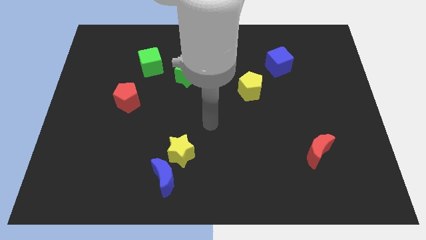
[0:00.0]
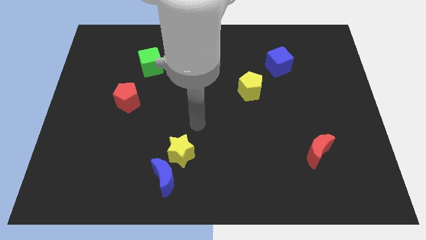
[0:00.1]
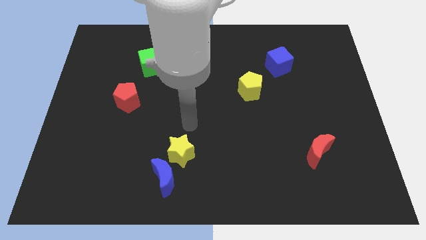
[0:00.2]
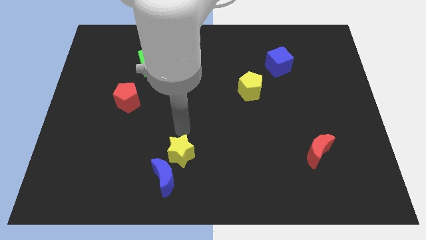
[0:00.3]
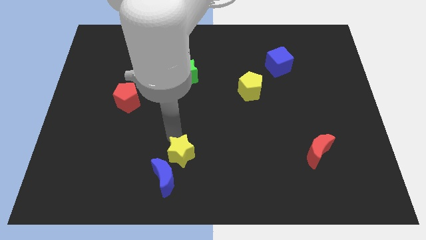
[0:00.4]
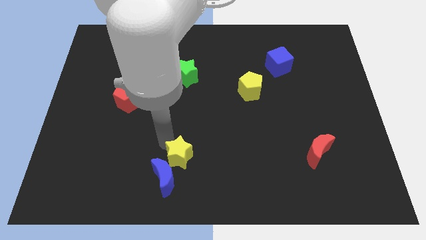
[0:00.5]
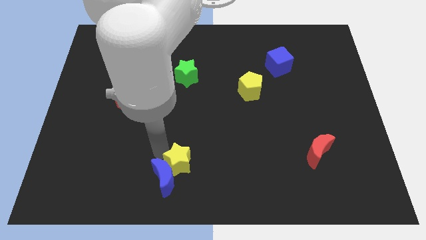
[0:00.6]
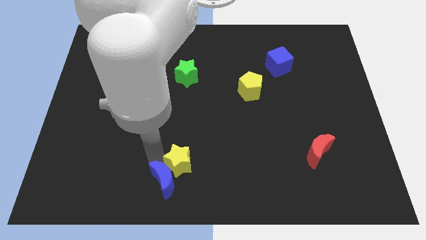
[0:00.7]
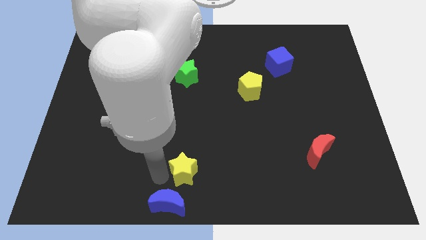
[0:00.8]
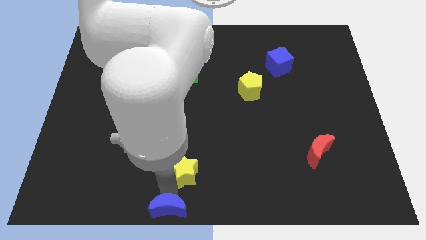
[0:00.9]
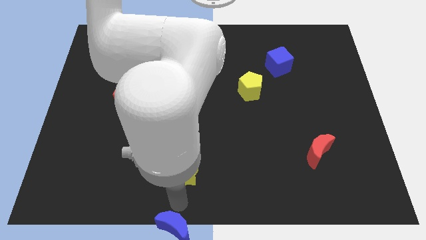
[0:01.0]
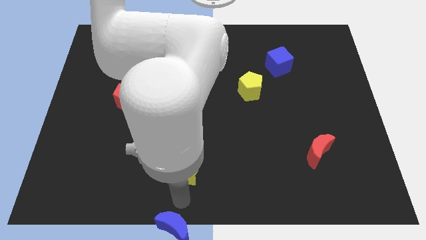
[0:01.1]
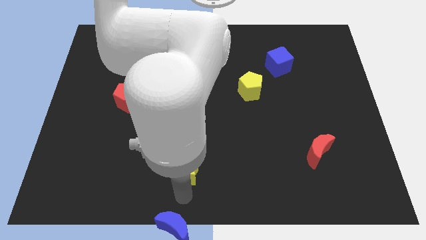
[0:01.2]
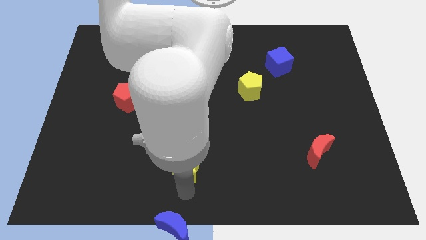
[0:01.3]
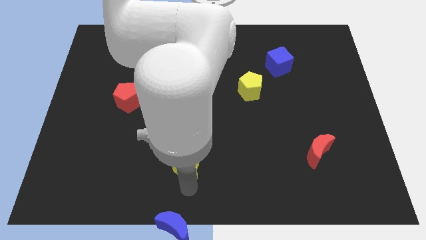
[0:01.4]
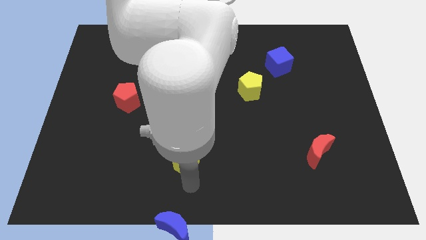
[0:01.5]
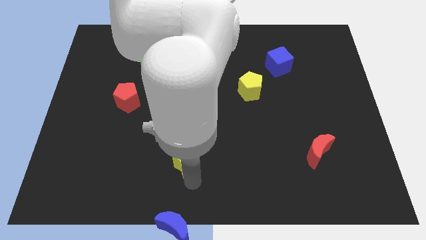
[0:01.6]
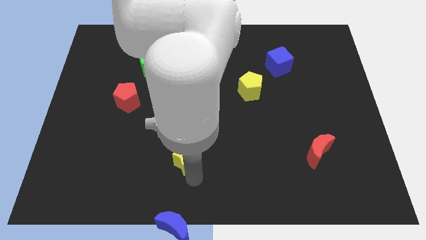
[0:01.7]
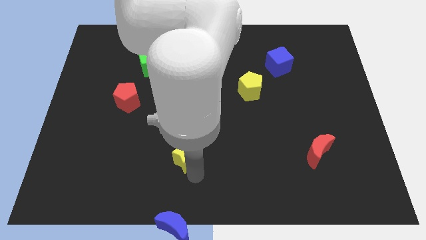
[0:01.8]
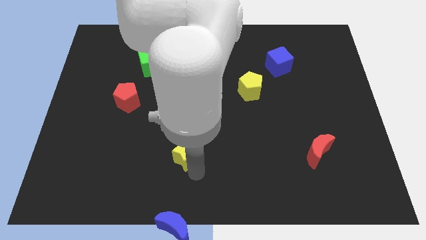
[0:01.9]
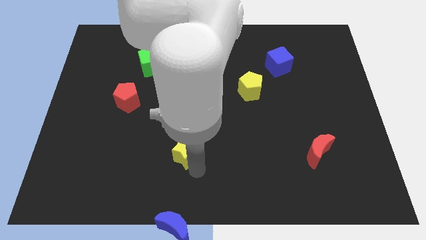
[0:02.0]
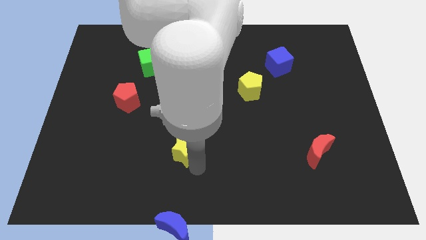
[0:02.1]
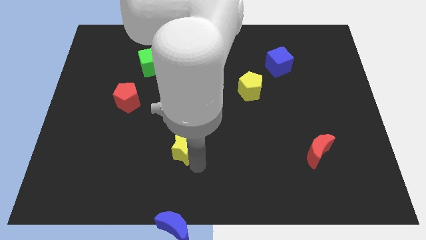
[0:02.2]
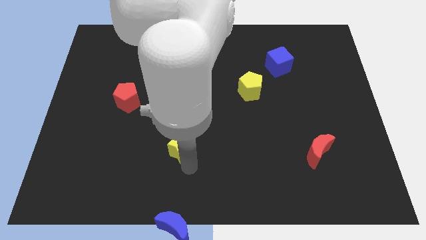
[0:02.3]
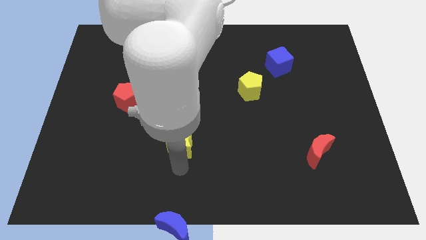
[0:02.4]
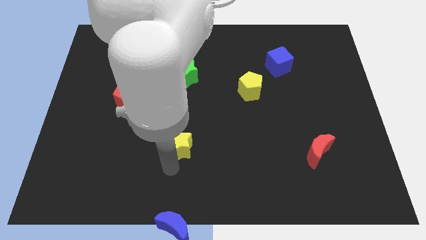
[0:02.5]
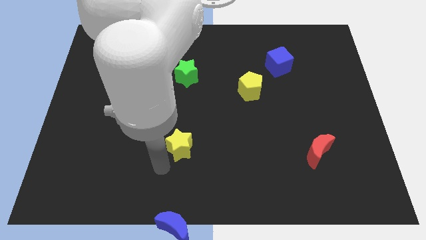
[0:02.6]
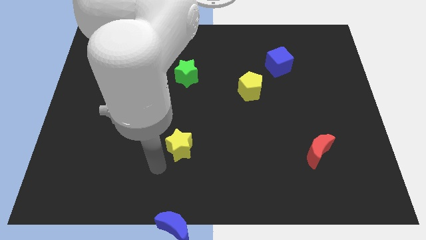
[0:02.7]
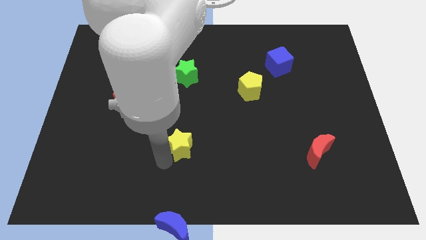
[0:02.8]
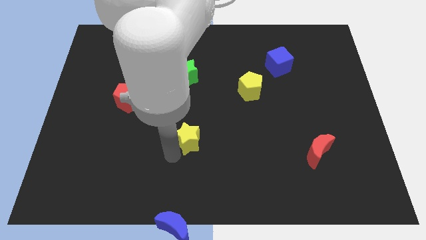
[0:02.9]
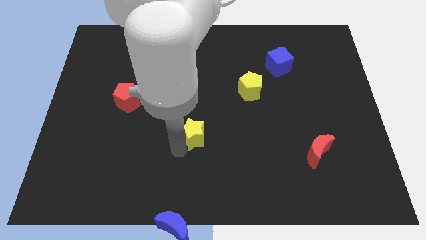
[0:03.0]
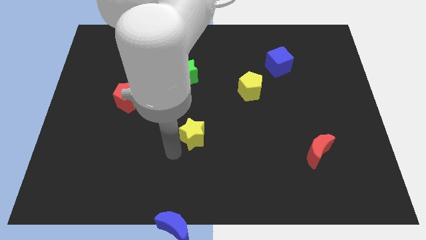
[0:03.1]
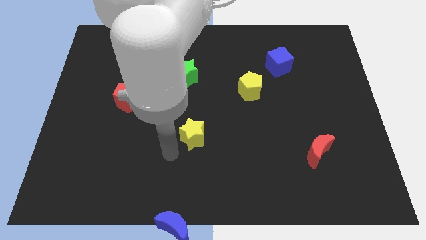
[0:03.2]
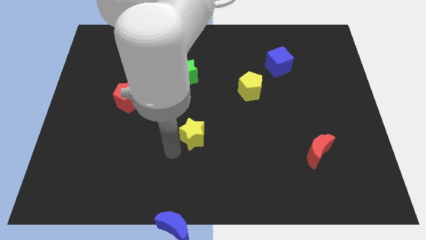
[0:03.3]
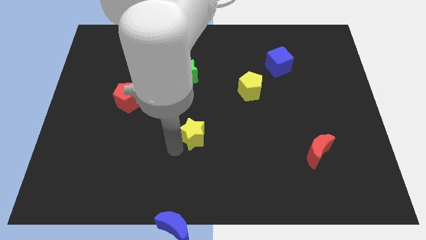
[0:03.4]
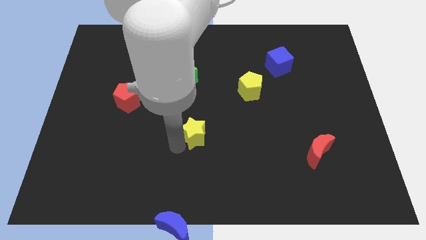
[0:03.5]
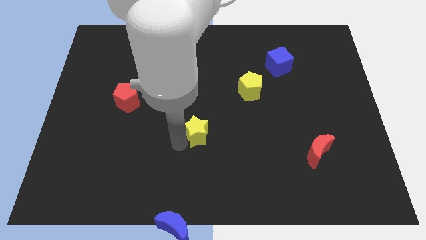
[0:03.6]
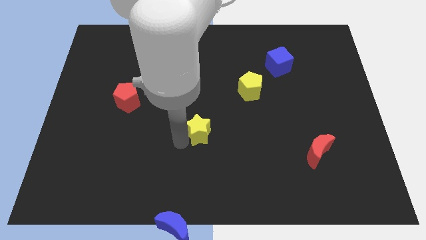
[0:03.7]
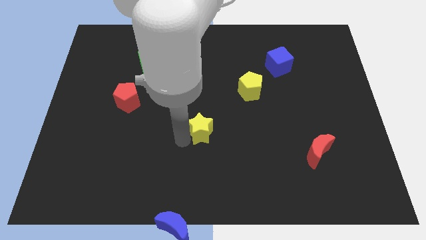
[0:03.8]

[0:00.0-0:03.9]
push the yellow star upwards and right somewhat

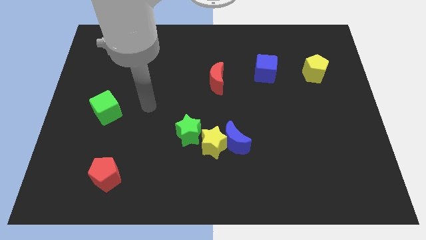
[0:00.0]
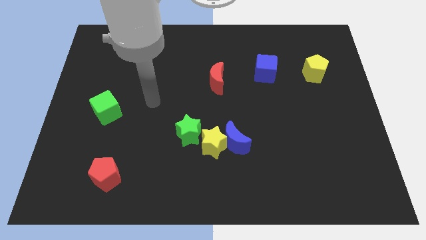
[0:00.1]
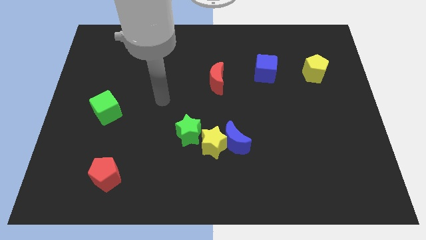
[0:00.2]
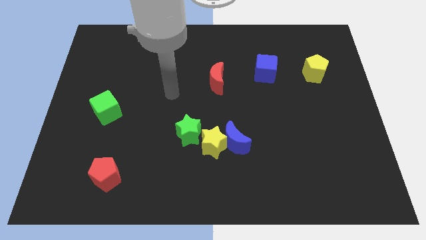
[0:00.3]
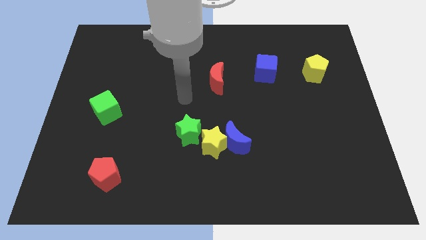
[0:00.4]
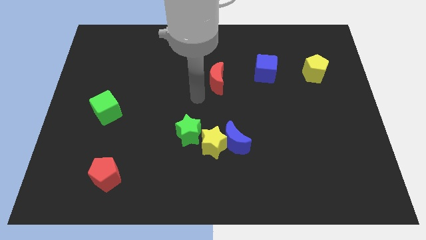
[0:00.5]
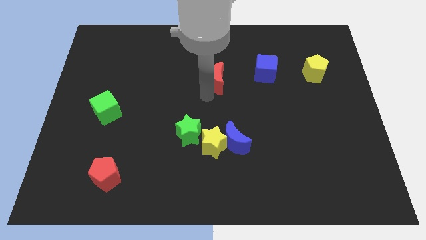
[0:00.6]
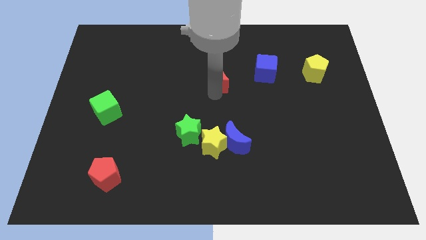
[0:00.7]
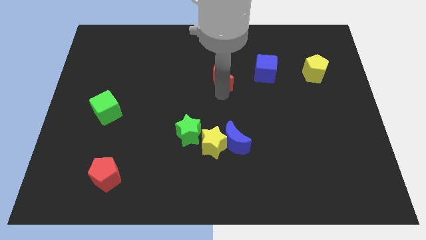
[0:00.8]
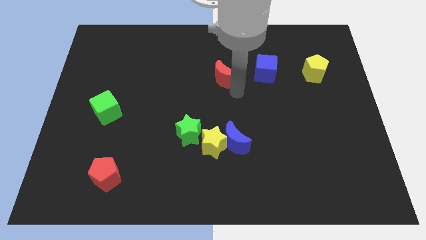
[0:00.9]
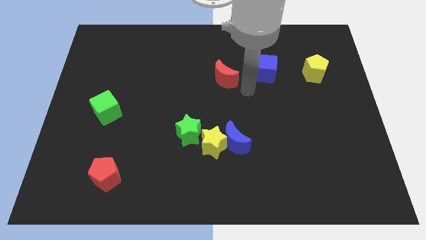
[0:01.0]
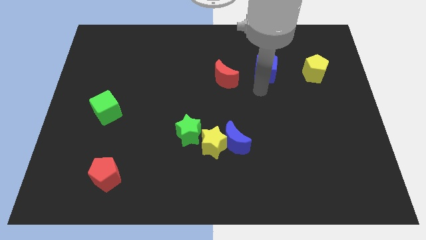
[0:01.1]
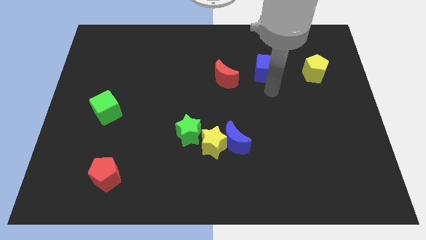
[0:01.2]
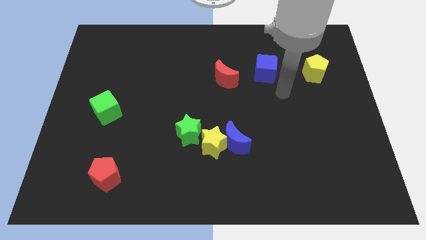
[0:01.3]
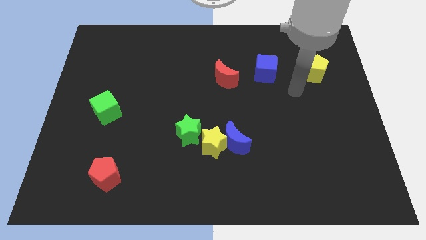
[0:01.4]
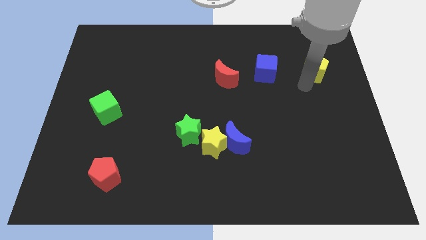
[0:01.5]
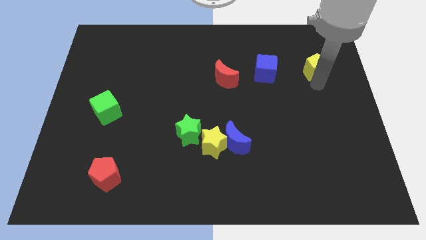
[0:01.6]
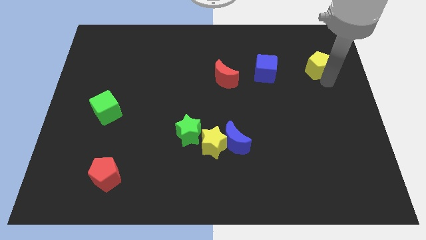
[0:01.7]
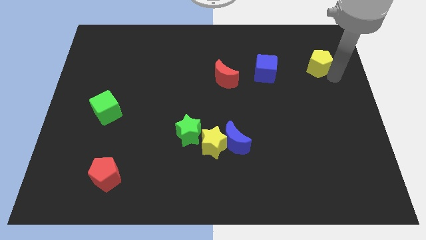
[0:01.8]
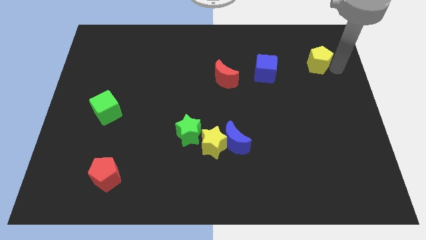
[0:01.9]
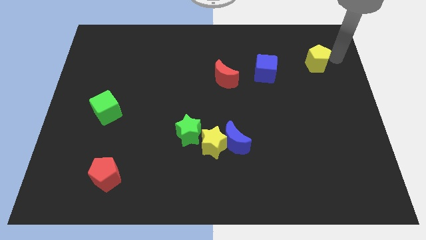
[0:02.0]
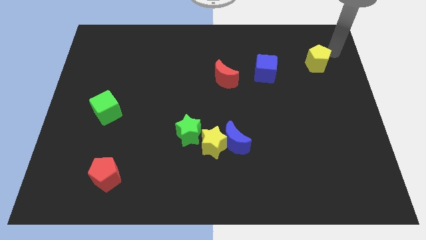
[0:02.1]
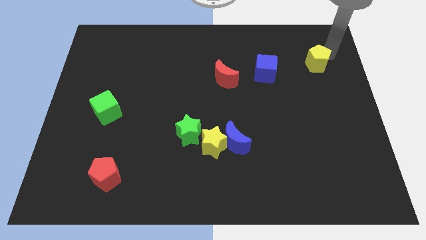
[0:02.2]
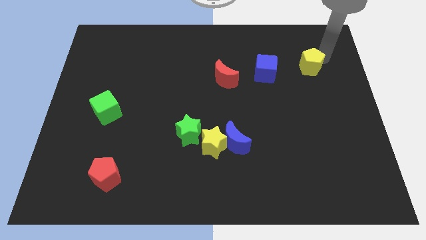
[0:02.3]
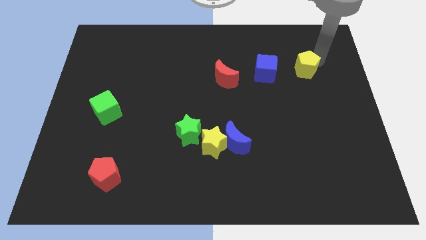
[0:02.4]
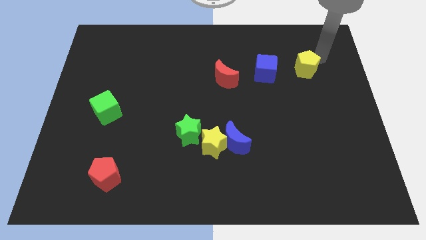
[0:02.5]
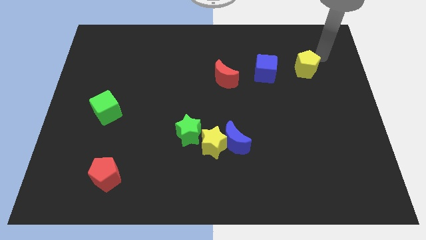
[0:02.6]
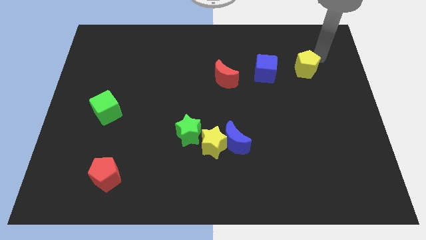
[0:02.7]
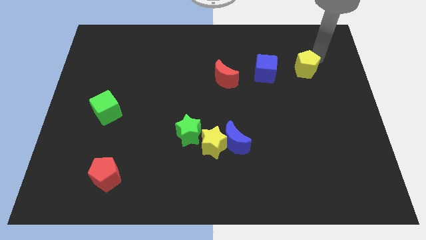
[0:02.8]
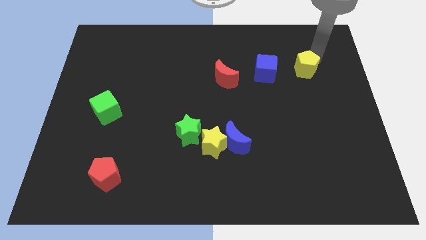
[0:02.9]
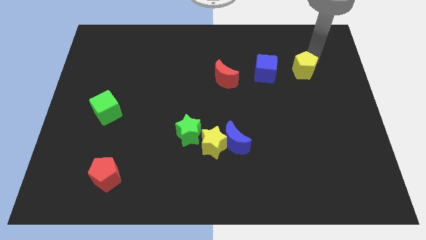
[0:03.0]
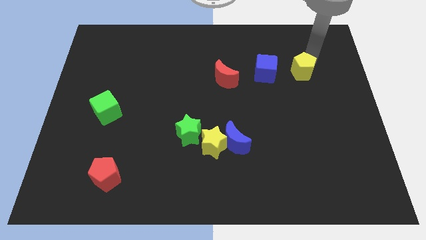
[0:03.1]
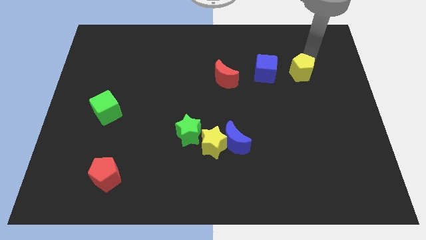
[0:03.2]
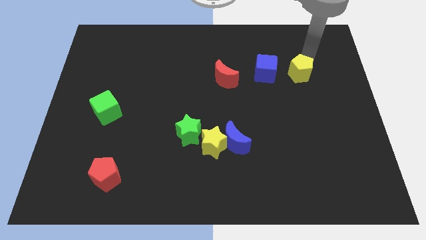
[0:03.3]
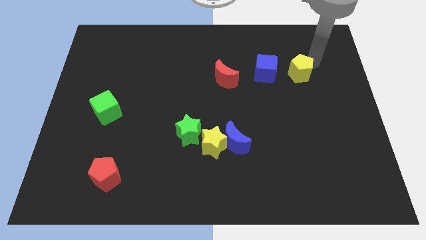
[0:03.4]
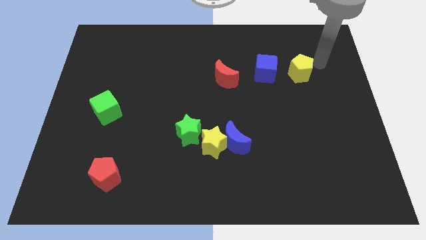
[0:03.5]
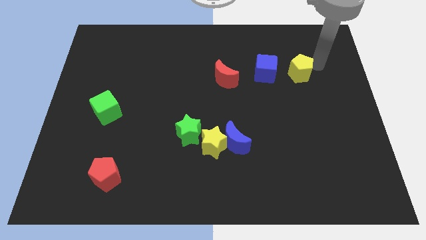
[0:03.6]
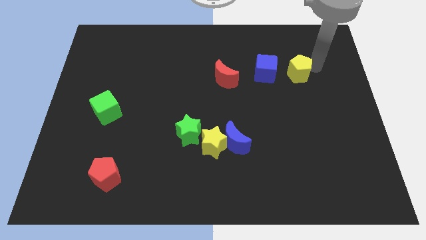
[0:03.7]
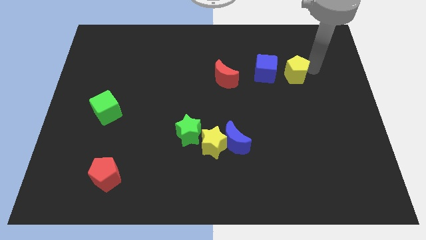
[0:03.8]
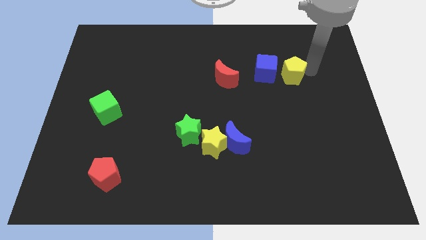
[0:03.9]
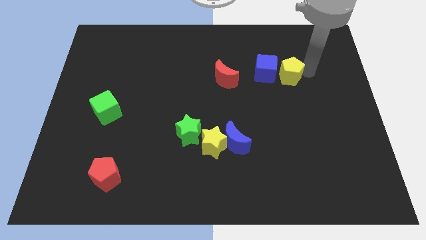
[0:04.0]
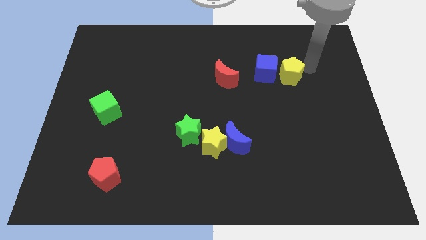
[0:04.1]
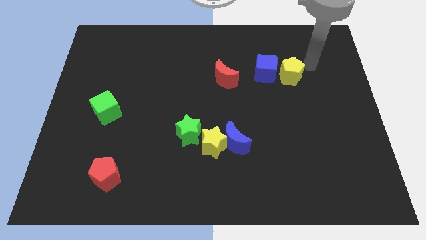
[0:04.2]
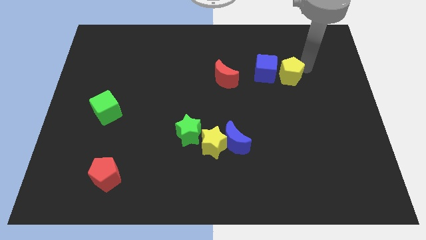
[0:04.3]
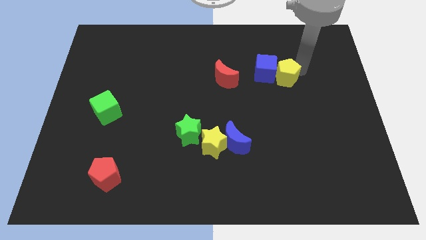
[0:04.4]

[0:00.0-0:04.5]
push the yellow pentagon a bit left
